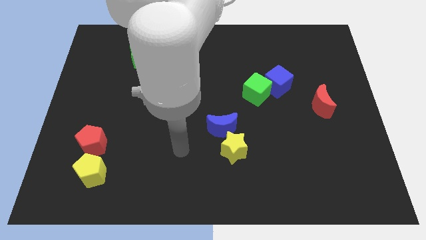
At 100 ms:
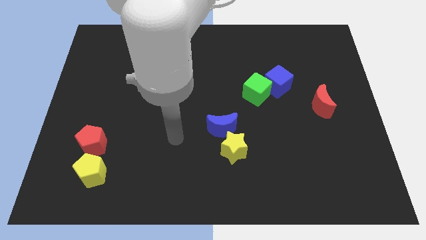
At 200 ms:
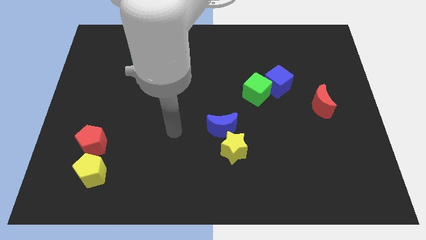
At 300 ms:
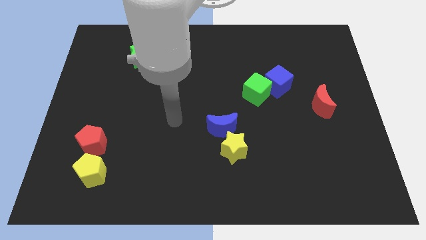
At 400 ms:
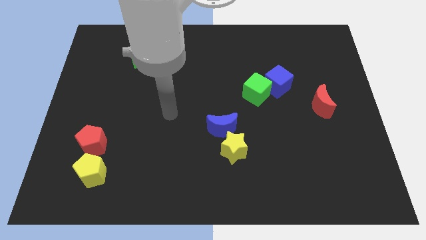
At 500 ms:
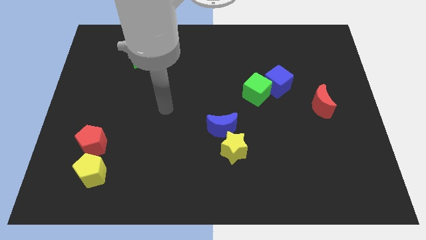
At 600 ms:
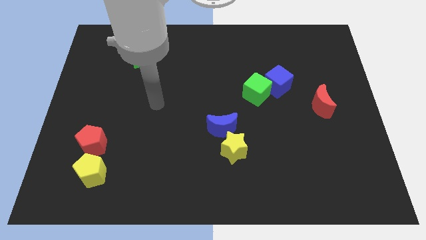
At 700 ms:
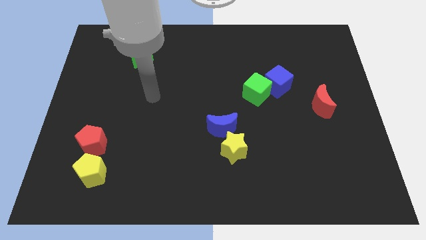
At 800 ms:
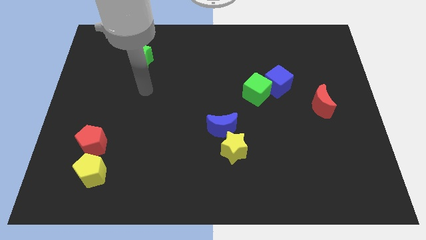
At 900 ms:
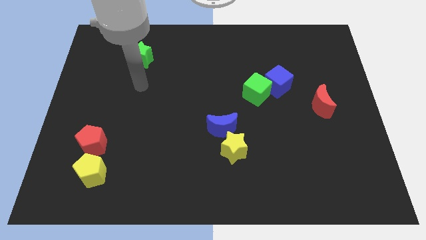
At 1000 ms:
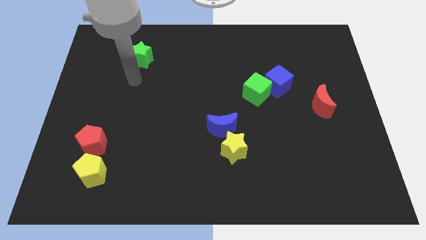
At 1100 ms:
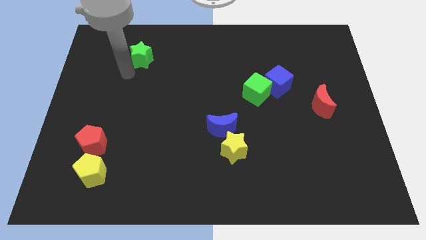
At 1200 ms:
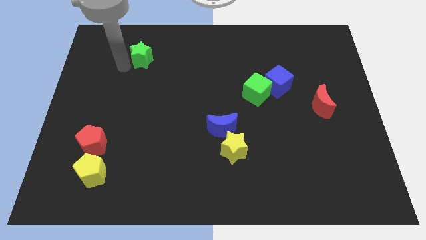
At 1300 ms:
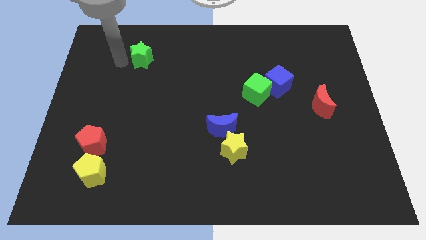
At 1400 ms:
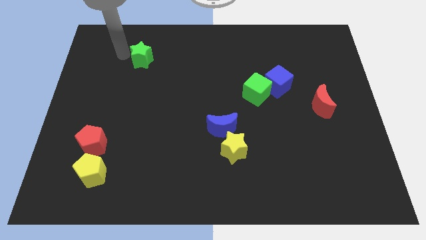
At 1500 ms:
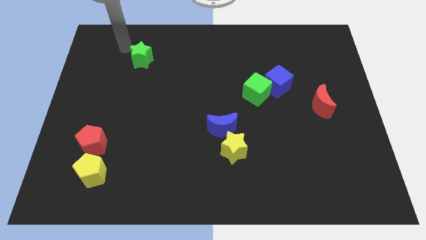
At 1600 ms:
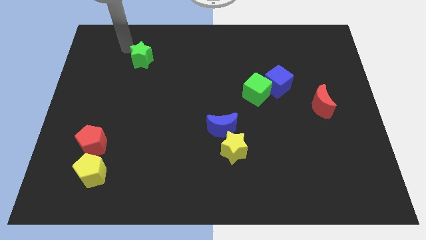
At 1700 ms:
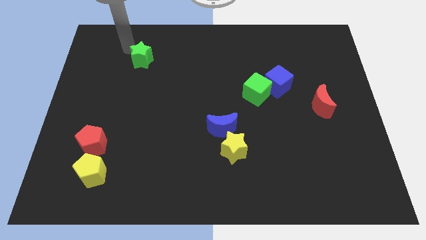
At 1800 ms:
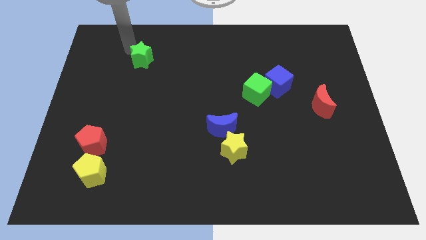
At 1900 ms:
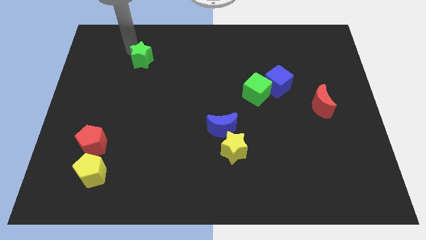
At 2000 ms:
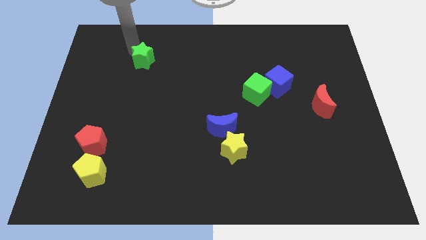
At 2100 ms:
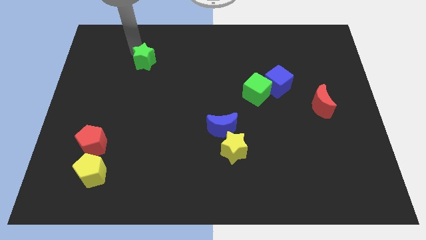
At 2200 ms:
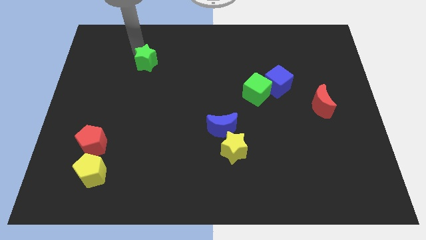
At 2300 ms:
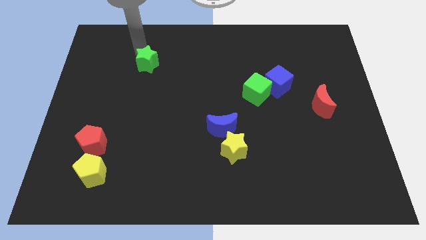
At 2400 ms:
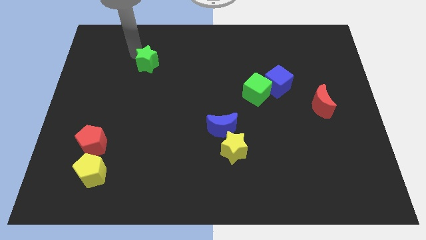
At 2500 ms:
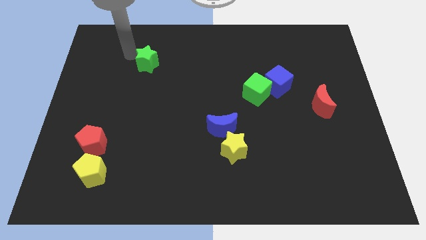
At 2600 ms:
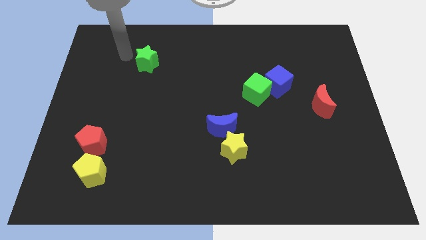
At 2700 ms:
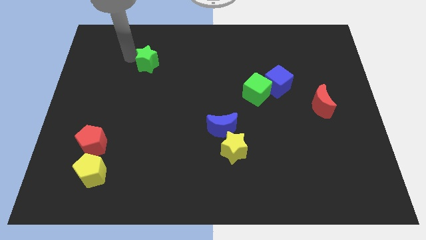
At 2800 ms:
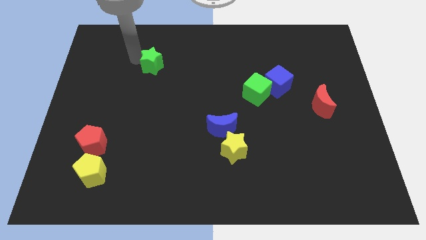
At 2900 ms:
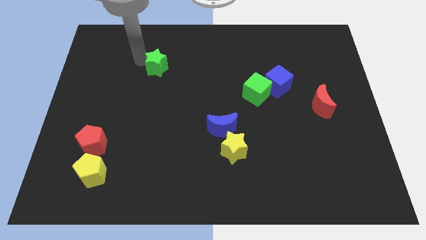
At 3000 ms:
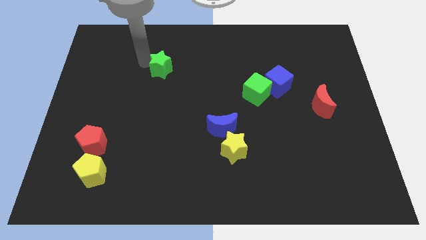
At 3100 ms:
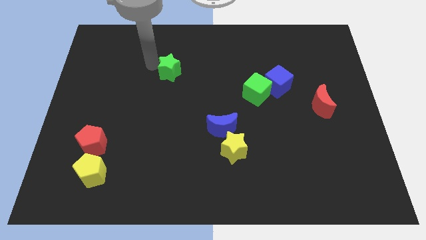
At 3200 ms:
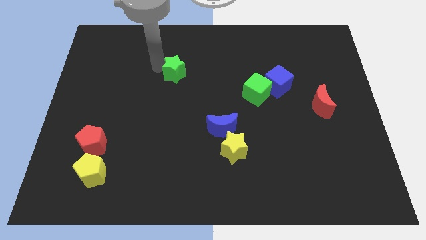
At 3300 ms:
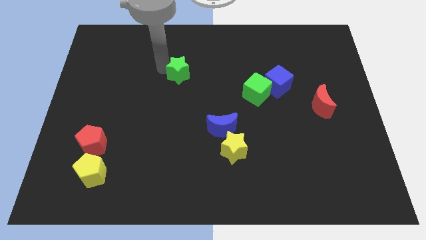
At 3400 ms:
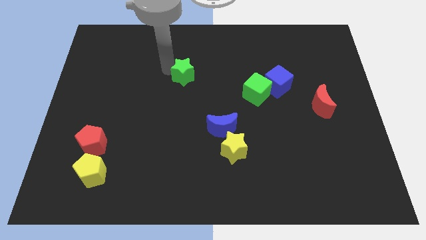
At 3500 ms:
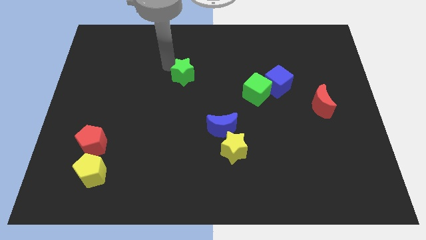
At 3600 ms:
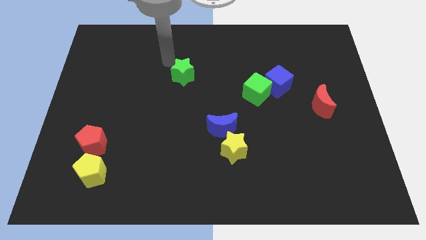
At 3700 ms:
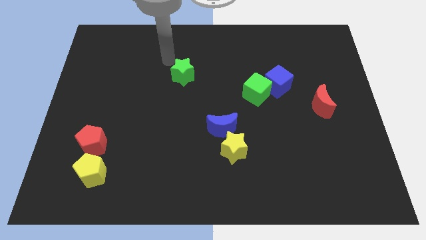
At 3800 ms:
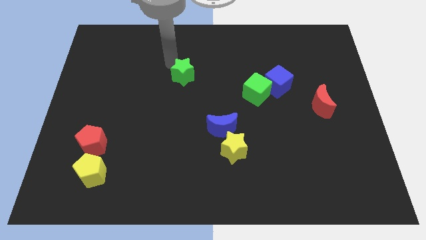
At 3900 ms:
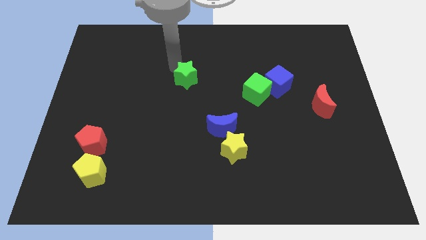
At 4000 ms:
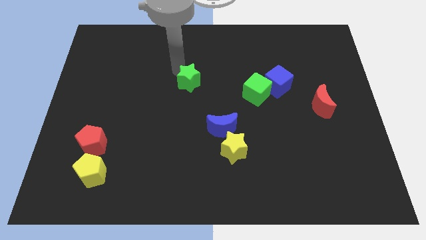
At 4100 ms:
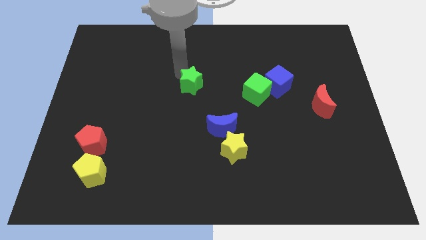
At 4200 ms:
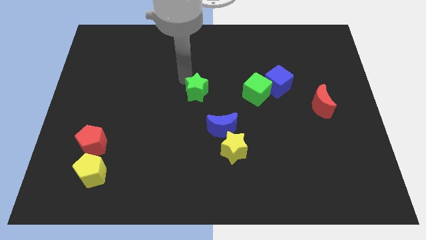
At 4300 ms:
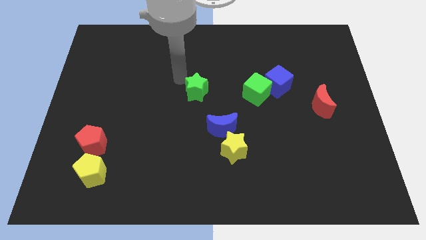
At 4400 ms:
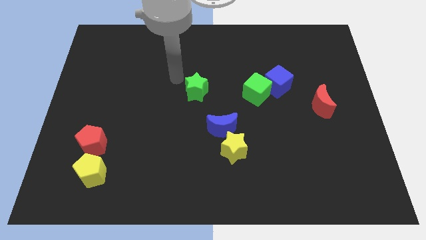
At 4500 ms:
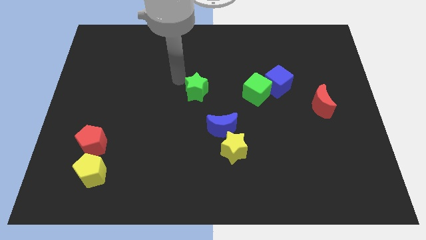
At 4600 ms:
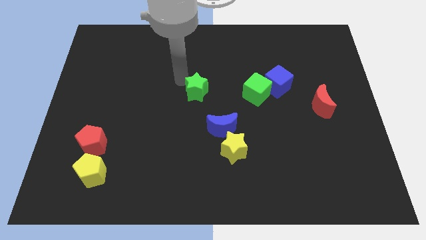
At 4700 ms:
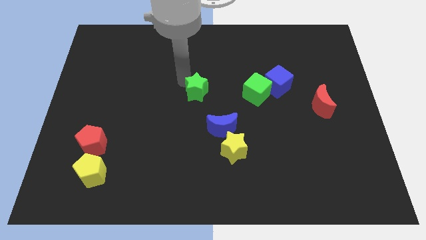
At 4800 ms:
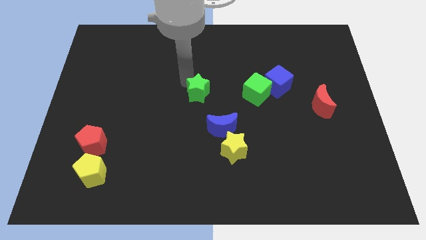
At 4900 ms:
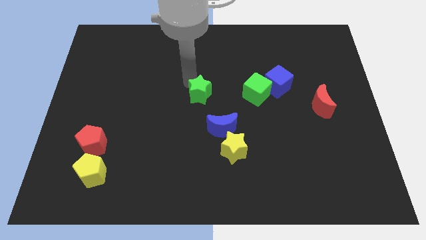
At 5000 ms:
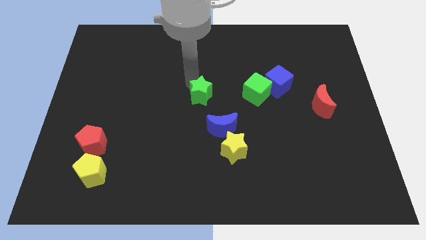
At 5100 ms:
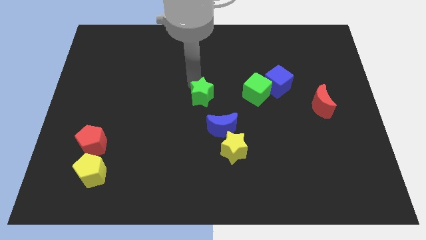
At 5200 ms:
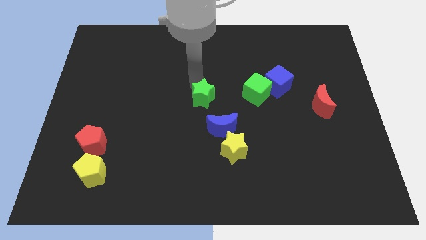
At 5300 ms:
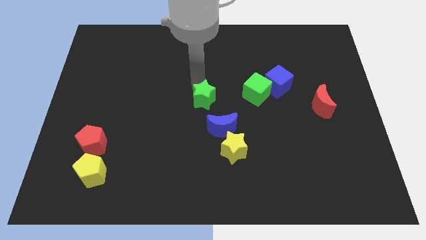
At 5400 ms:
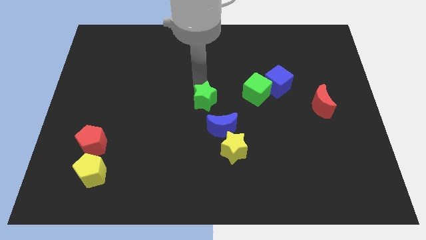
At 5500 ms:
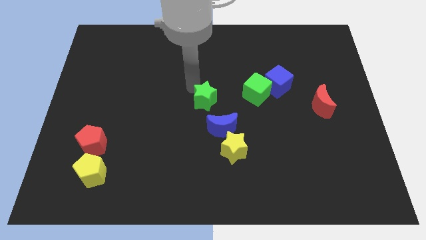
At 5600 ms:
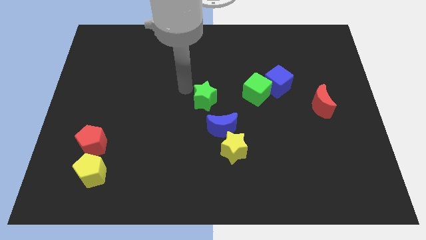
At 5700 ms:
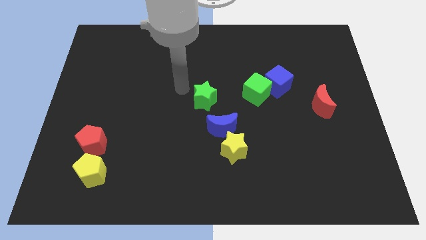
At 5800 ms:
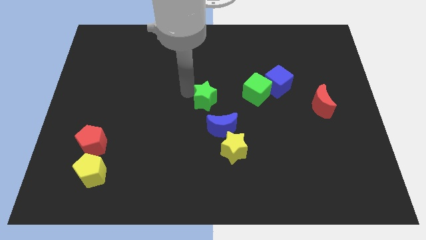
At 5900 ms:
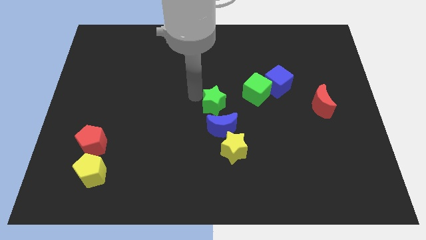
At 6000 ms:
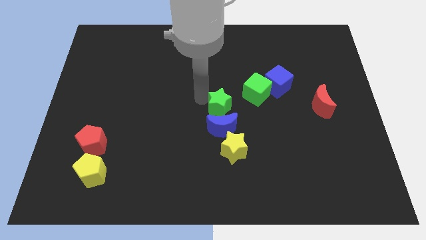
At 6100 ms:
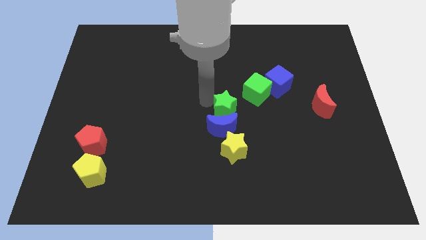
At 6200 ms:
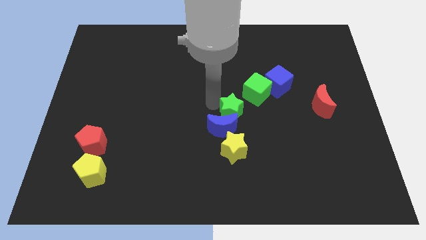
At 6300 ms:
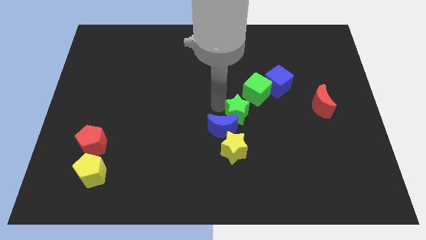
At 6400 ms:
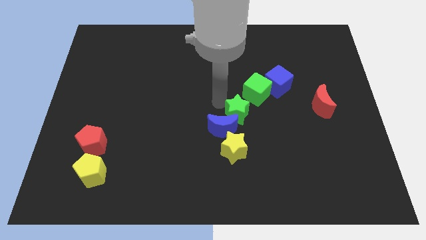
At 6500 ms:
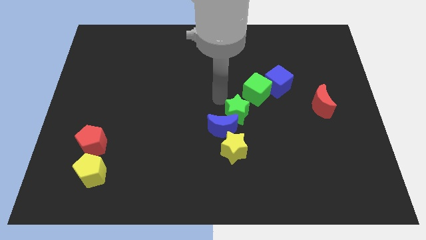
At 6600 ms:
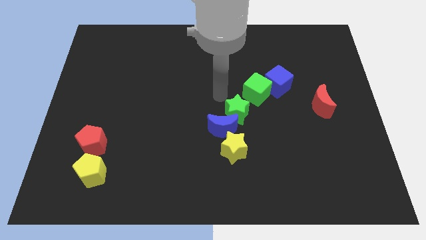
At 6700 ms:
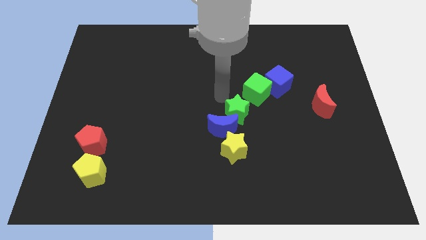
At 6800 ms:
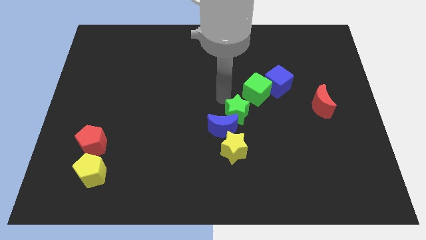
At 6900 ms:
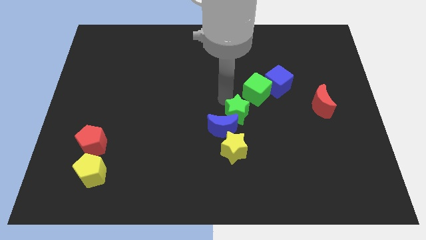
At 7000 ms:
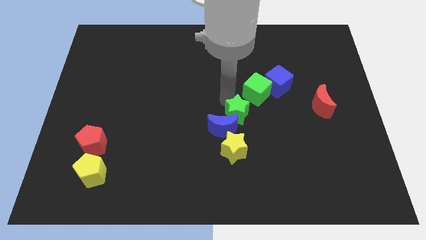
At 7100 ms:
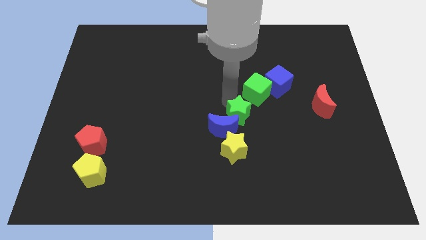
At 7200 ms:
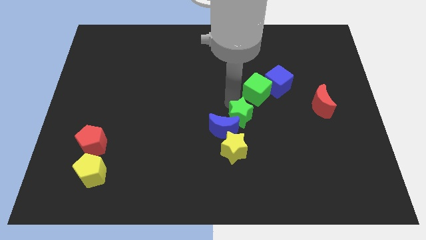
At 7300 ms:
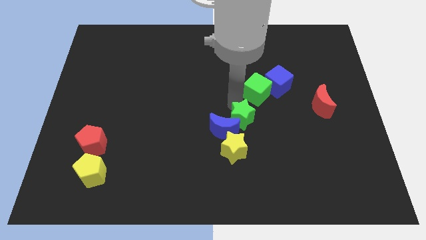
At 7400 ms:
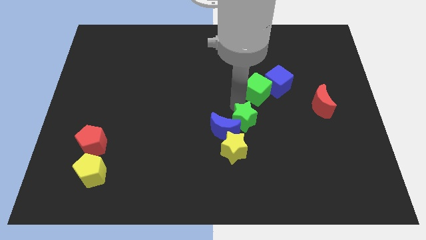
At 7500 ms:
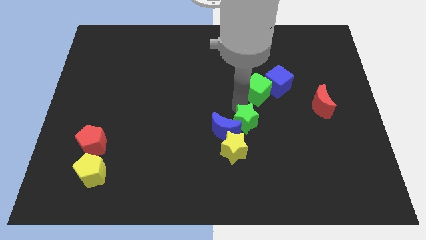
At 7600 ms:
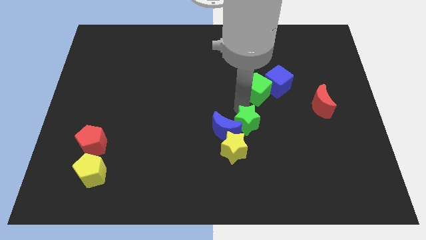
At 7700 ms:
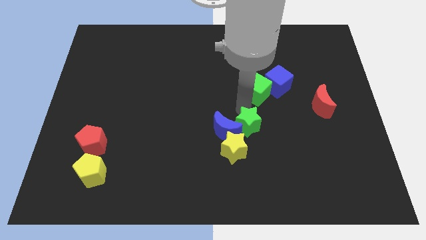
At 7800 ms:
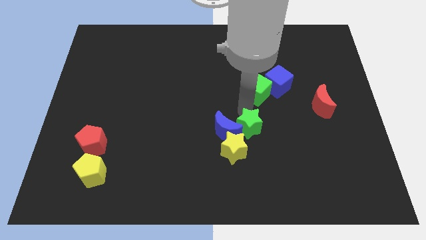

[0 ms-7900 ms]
move the green star to the bottom right of the blue moon
